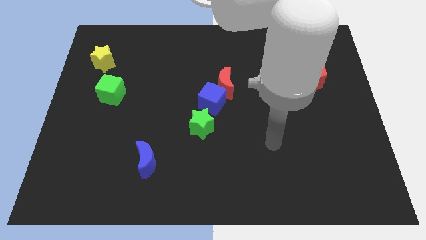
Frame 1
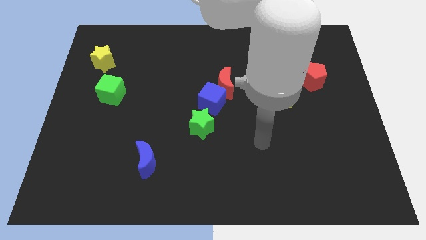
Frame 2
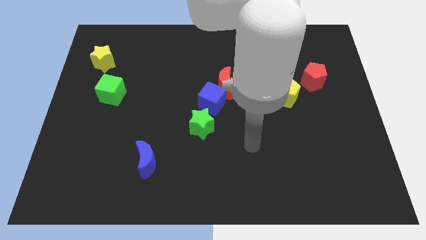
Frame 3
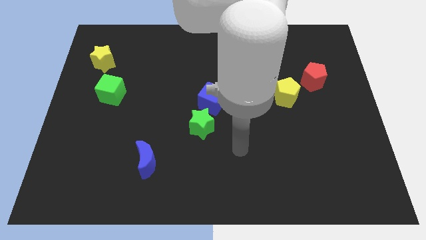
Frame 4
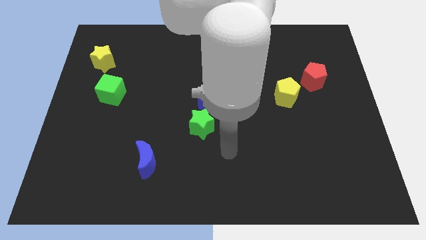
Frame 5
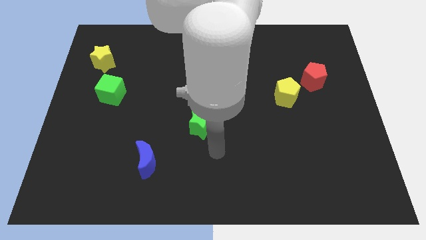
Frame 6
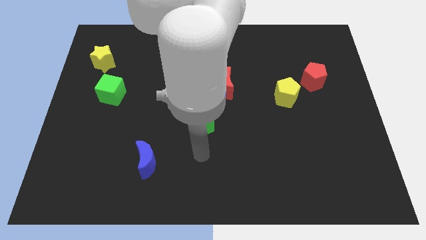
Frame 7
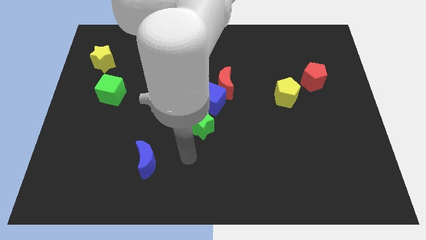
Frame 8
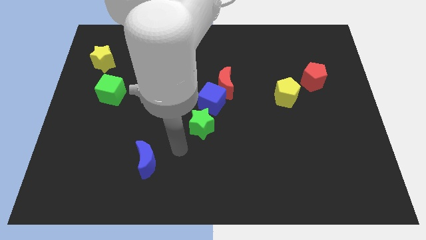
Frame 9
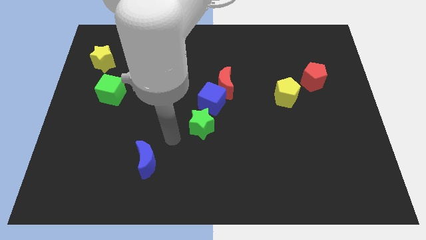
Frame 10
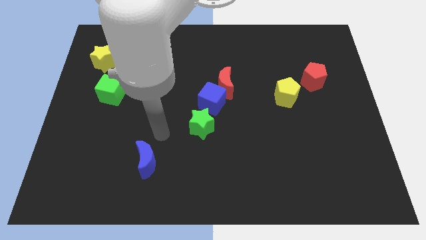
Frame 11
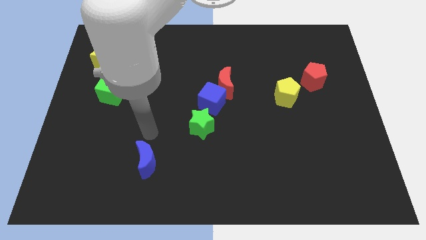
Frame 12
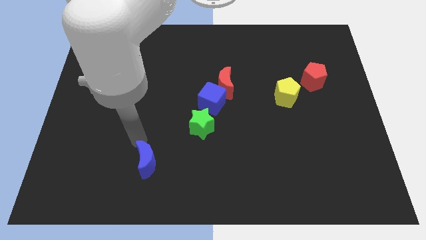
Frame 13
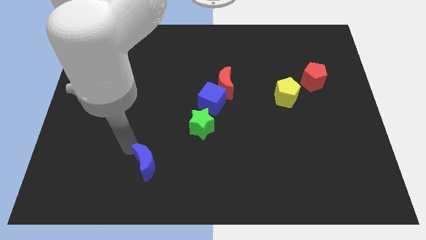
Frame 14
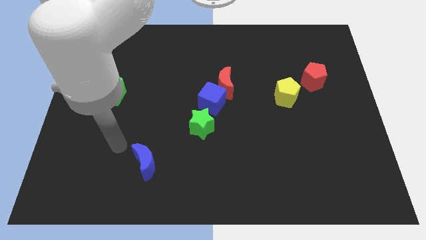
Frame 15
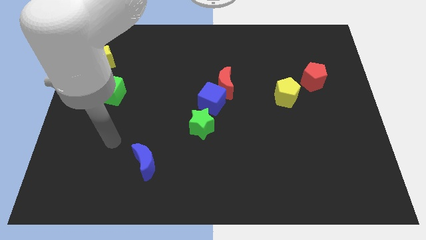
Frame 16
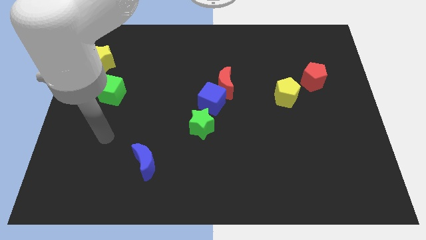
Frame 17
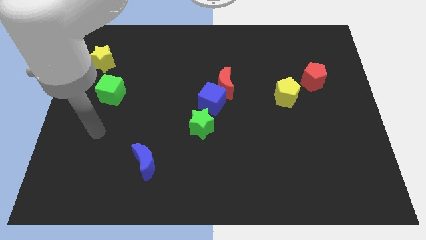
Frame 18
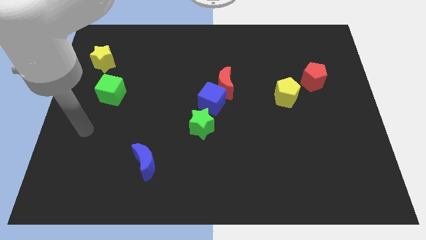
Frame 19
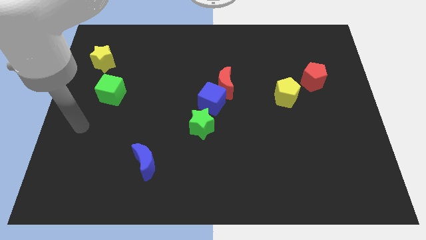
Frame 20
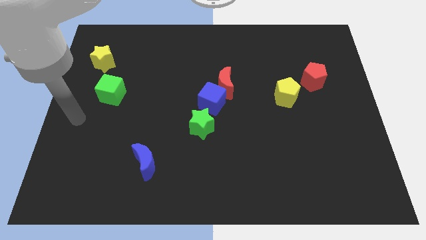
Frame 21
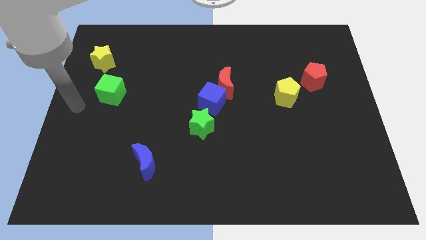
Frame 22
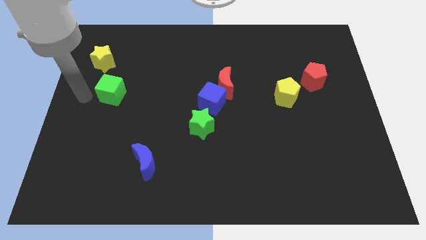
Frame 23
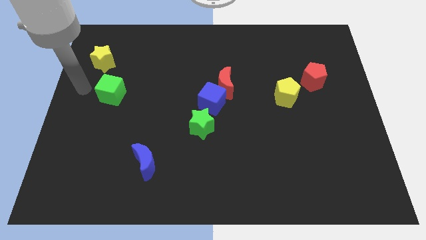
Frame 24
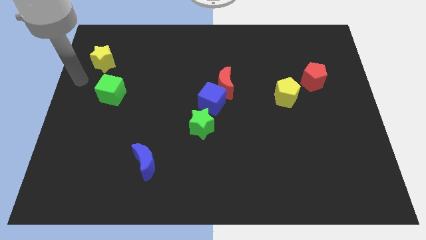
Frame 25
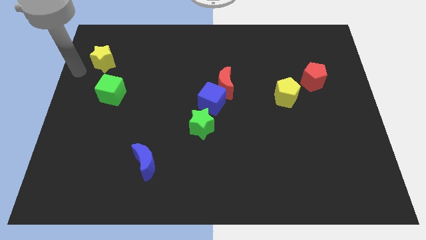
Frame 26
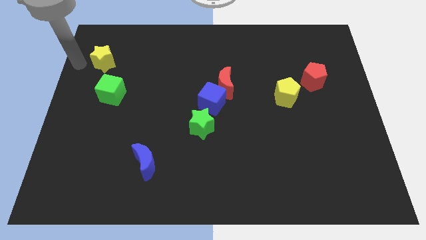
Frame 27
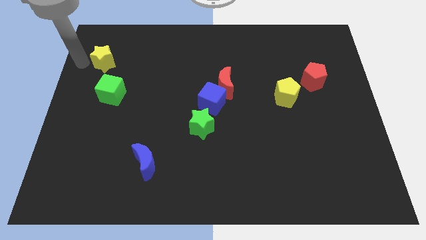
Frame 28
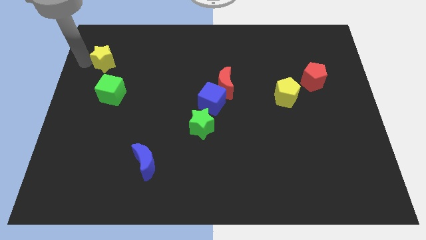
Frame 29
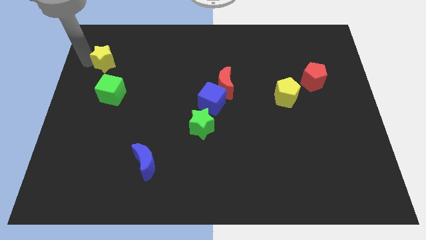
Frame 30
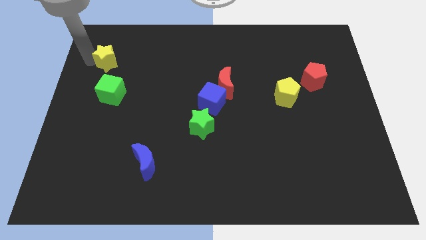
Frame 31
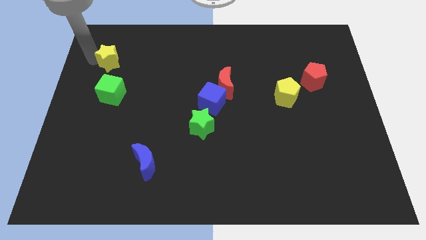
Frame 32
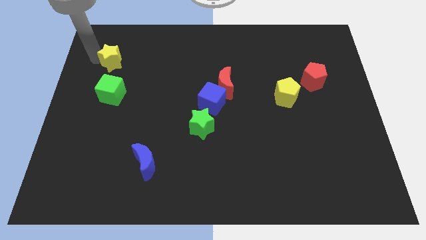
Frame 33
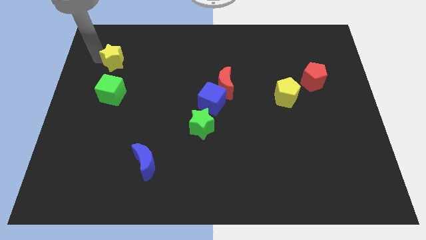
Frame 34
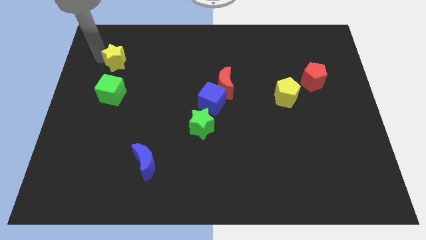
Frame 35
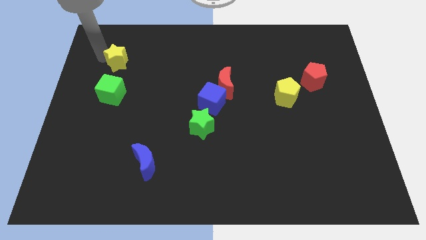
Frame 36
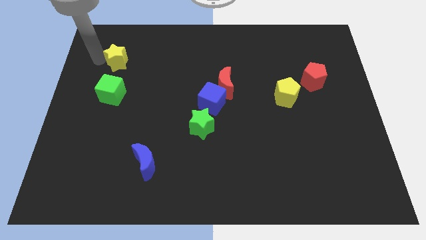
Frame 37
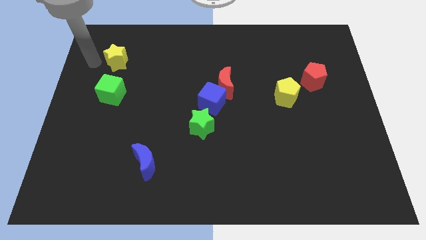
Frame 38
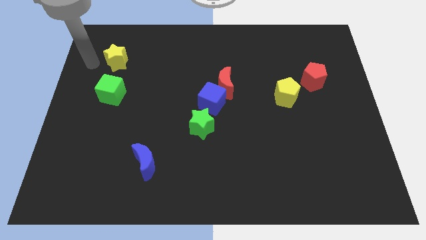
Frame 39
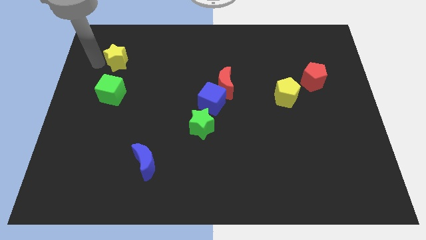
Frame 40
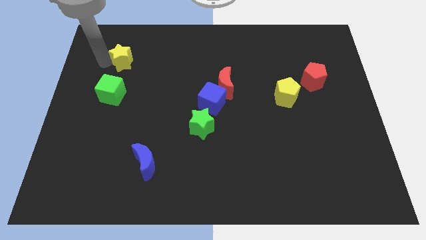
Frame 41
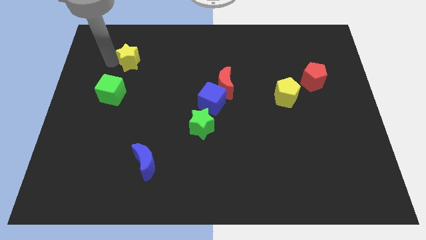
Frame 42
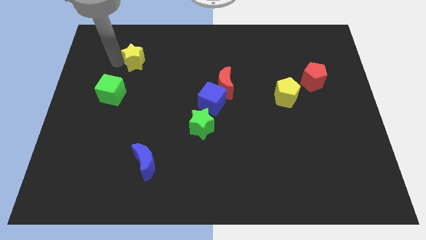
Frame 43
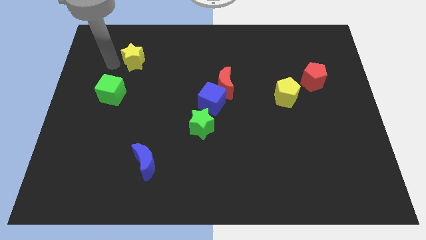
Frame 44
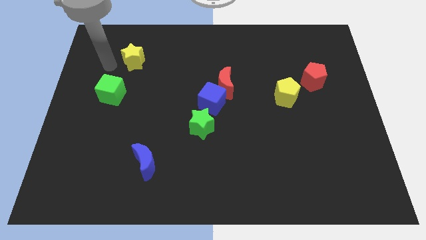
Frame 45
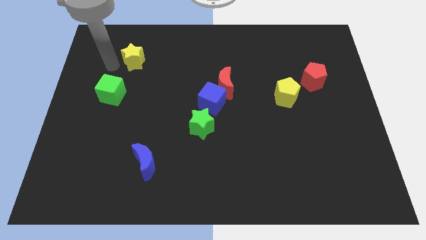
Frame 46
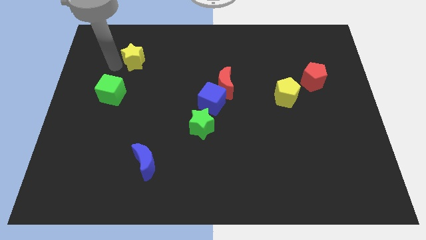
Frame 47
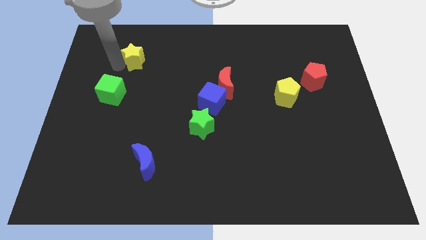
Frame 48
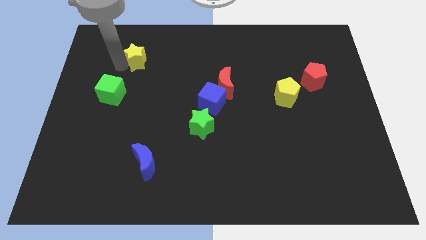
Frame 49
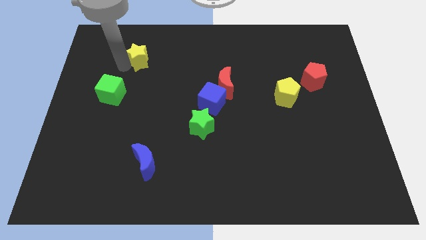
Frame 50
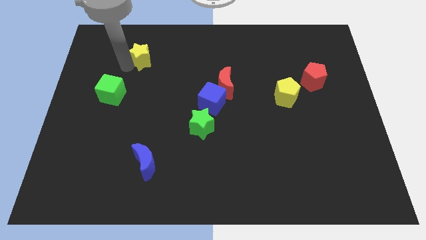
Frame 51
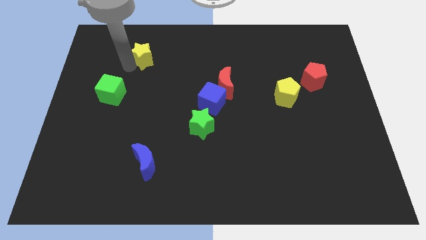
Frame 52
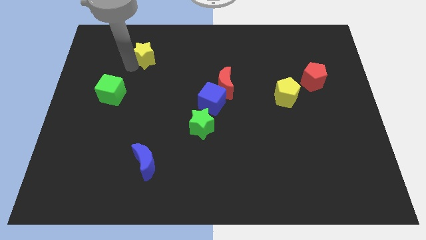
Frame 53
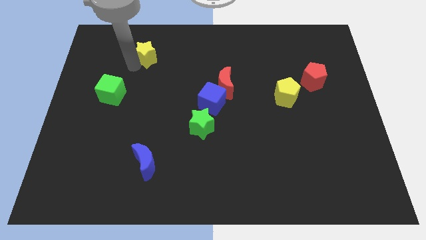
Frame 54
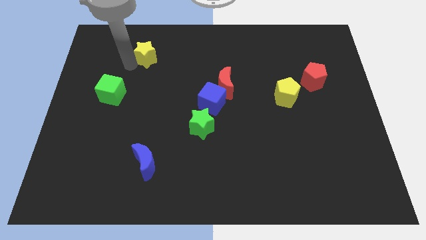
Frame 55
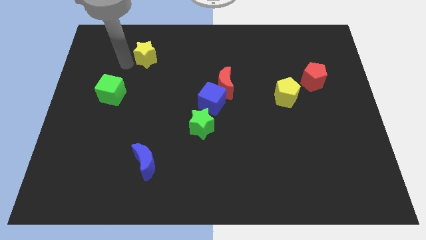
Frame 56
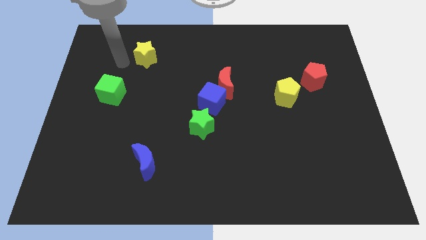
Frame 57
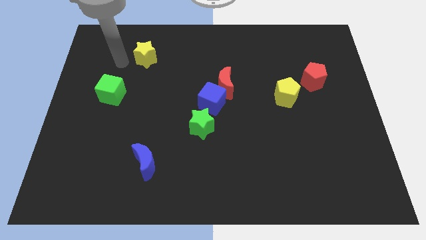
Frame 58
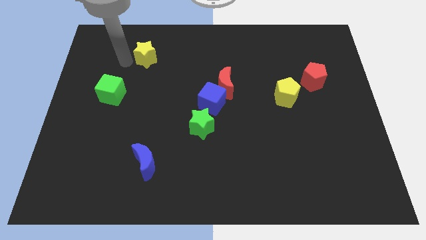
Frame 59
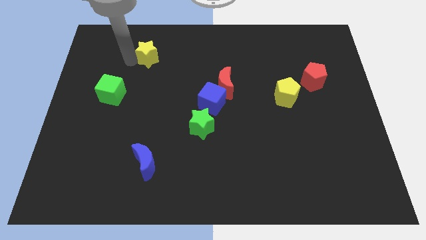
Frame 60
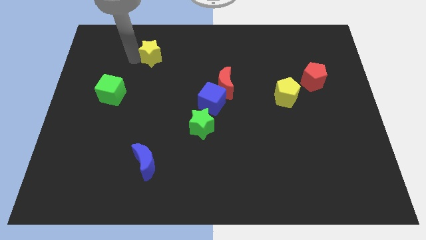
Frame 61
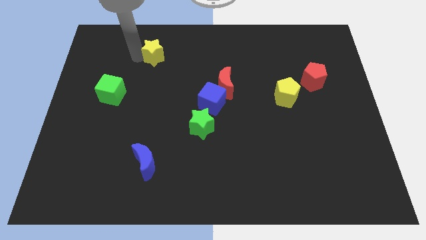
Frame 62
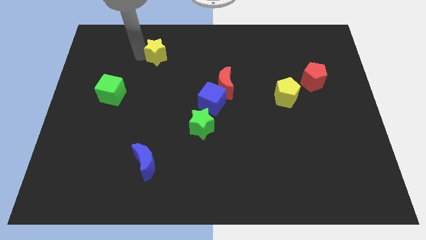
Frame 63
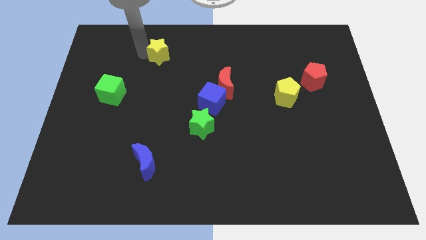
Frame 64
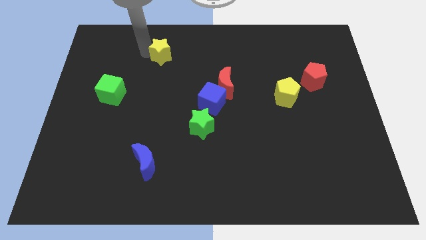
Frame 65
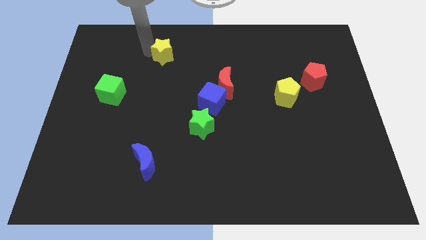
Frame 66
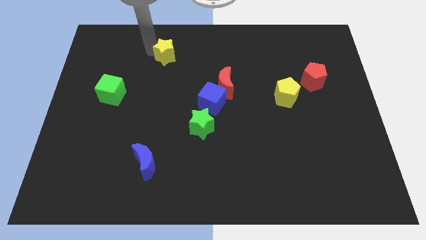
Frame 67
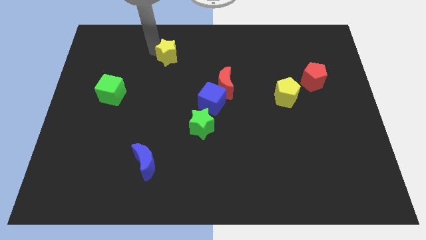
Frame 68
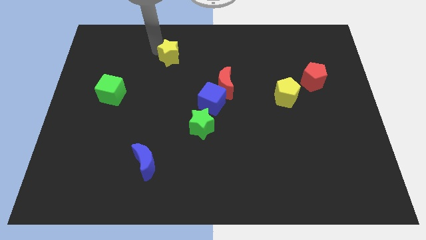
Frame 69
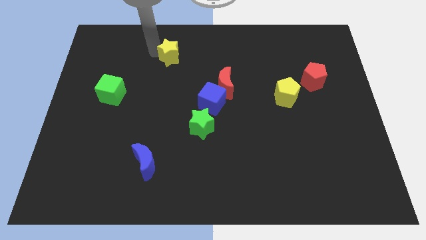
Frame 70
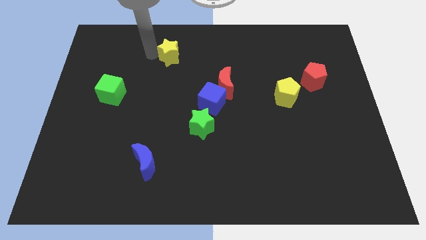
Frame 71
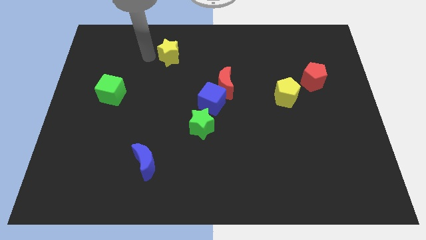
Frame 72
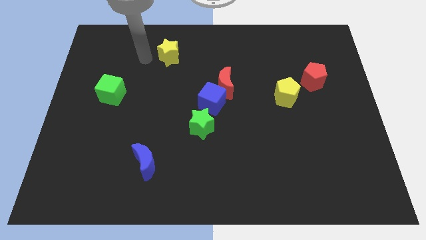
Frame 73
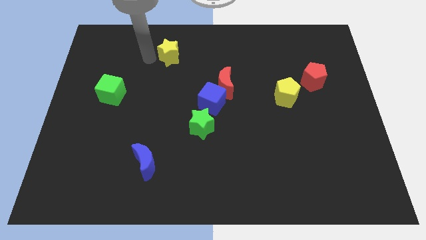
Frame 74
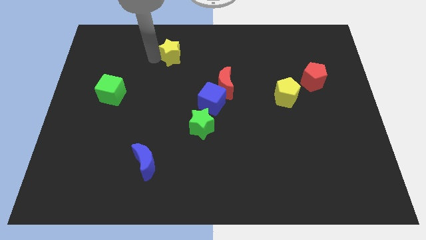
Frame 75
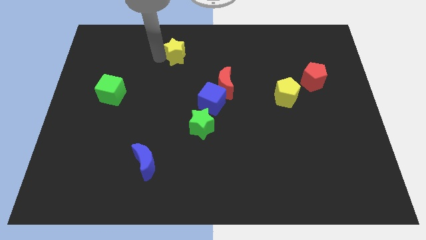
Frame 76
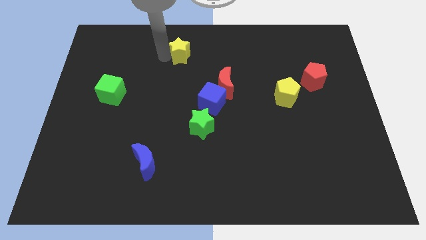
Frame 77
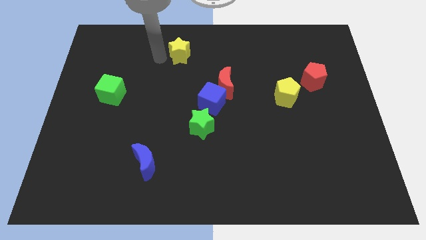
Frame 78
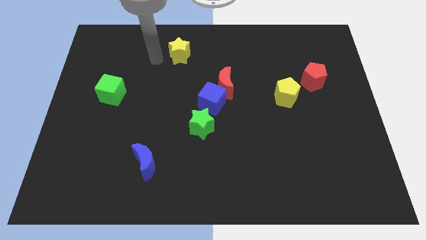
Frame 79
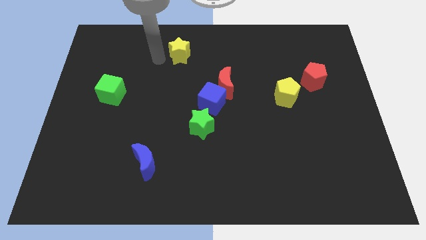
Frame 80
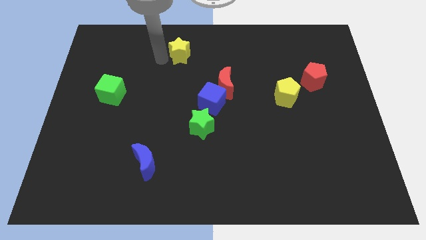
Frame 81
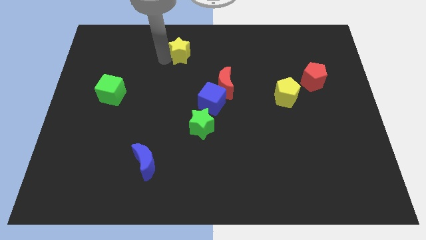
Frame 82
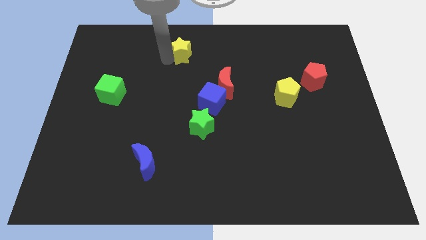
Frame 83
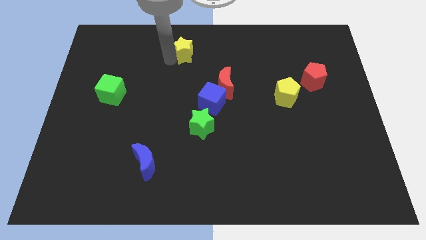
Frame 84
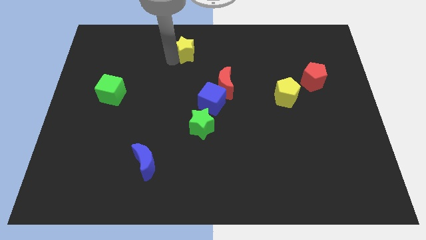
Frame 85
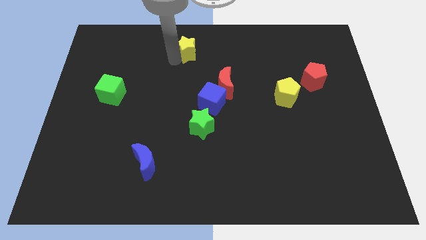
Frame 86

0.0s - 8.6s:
push the yellow star to the top side
